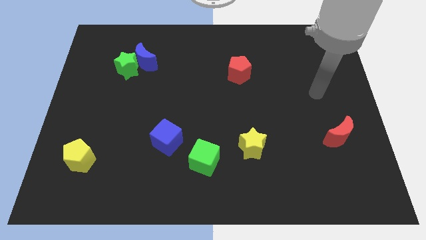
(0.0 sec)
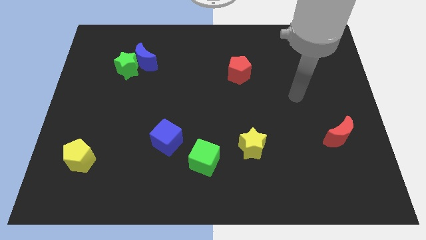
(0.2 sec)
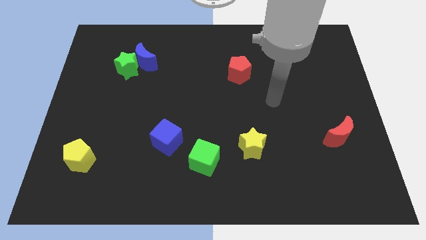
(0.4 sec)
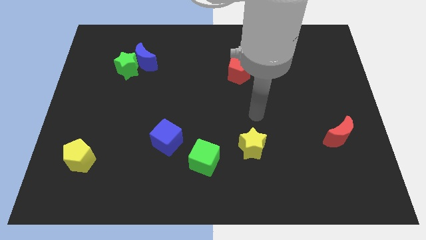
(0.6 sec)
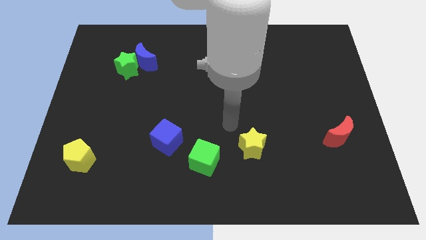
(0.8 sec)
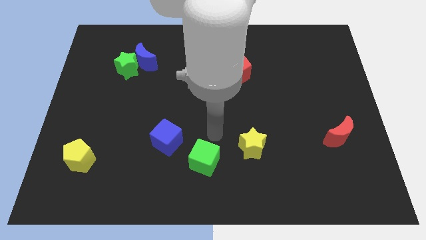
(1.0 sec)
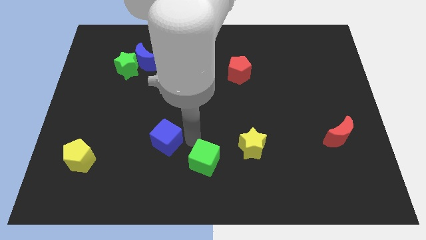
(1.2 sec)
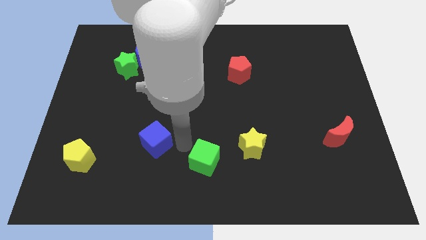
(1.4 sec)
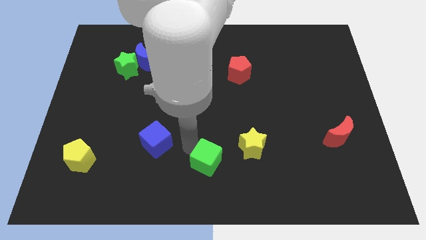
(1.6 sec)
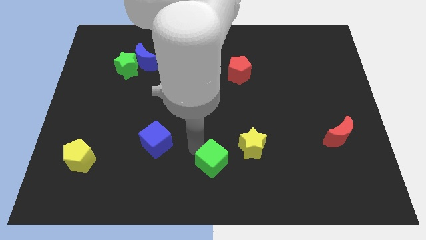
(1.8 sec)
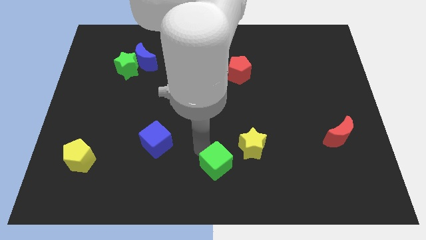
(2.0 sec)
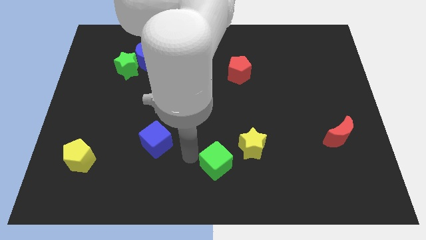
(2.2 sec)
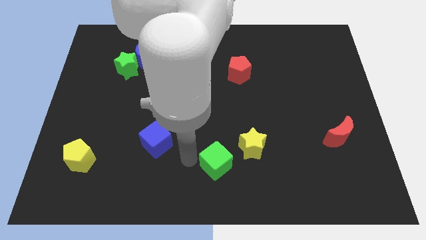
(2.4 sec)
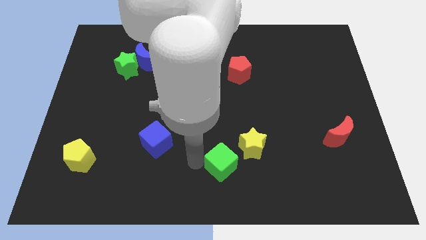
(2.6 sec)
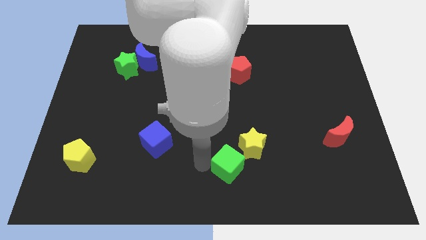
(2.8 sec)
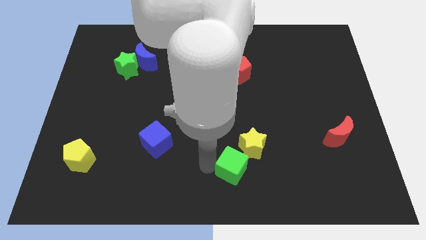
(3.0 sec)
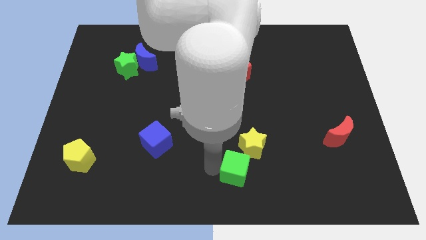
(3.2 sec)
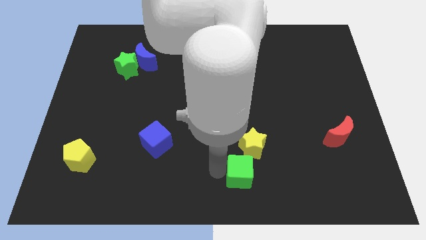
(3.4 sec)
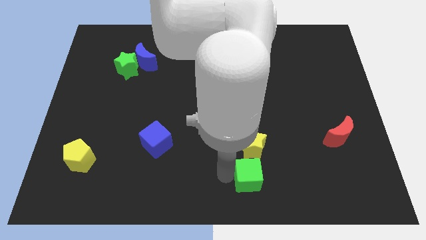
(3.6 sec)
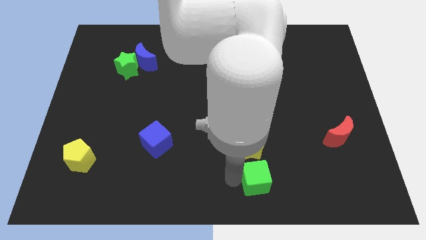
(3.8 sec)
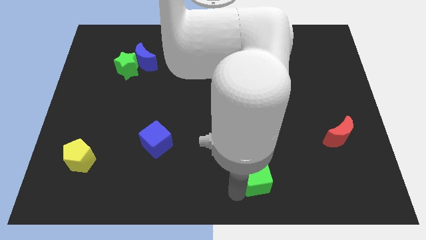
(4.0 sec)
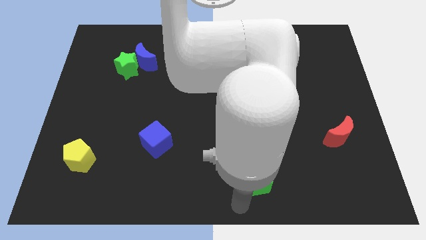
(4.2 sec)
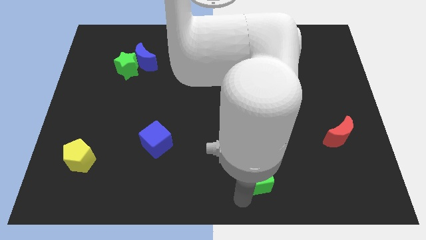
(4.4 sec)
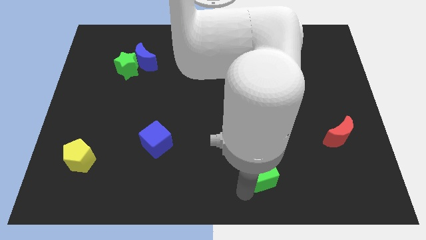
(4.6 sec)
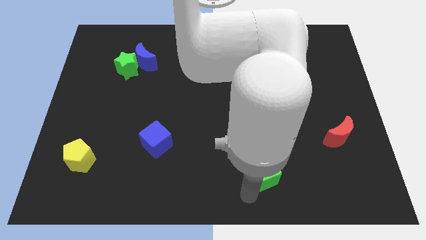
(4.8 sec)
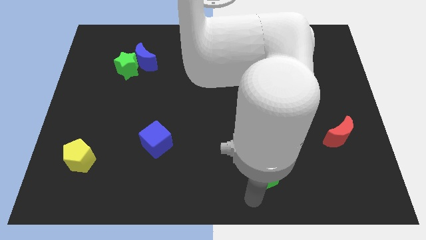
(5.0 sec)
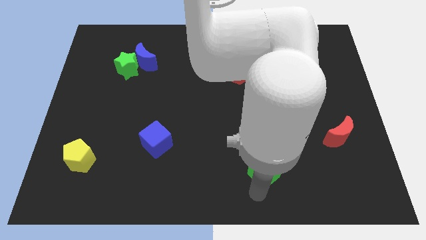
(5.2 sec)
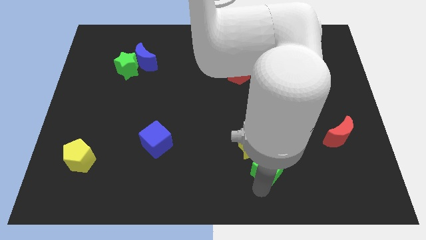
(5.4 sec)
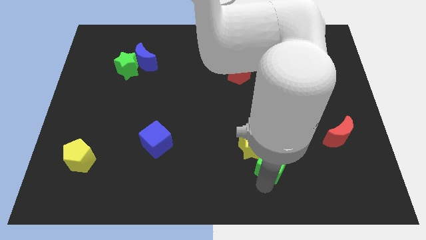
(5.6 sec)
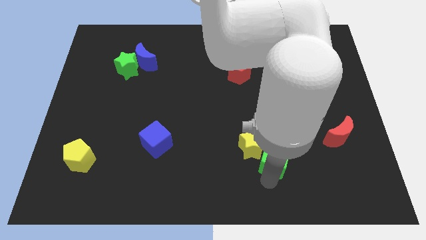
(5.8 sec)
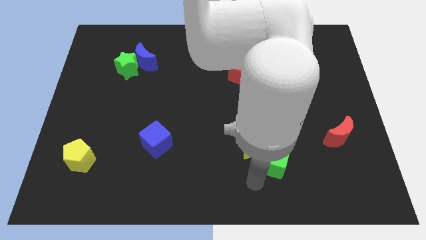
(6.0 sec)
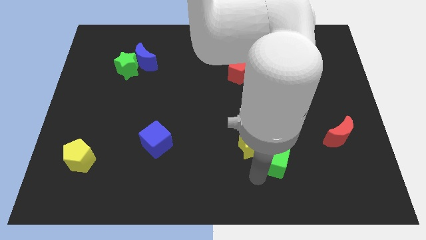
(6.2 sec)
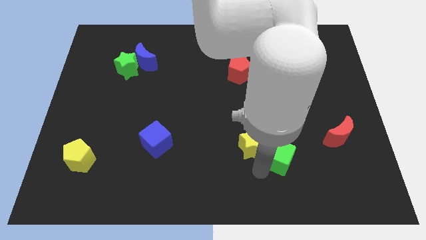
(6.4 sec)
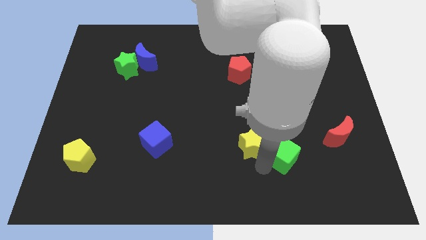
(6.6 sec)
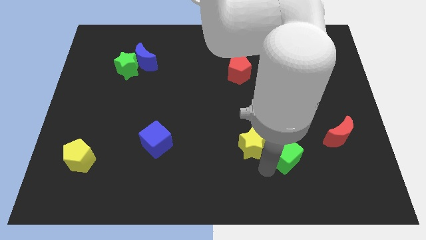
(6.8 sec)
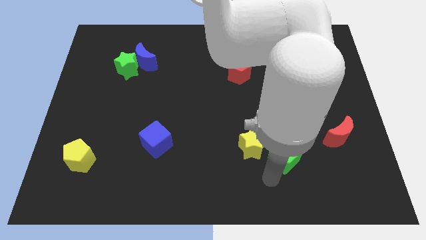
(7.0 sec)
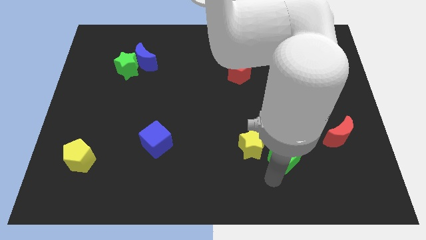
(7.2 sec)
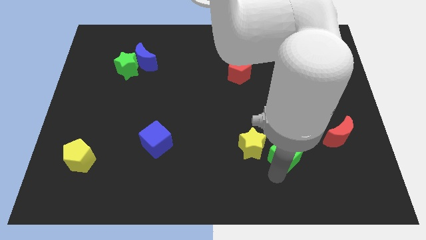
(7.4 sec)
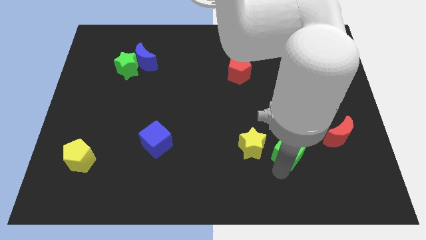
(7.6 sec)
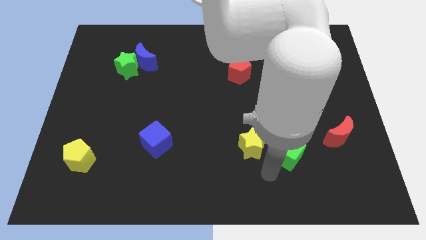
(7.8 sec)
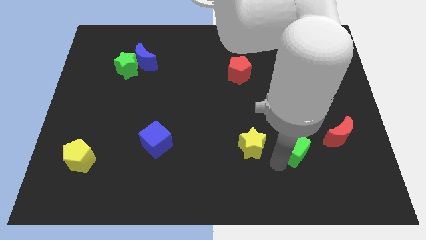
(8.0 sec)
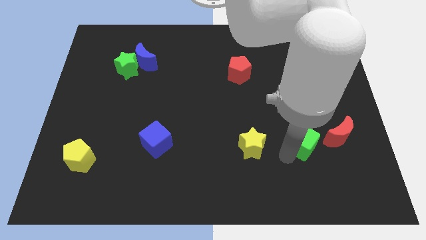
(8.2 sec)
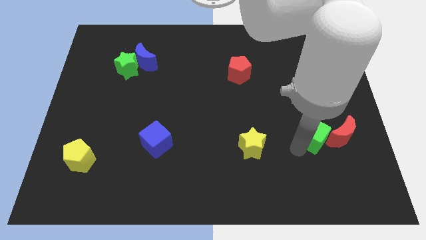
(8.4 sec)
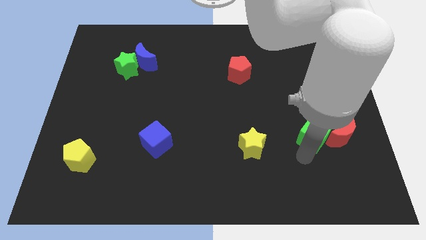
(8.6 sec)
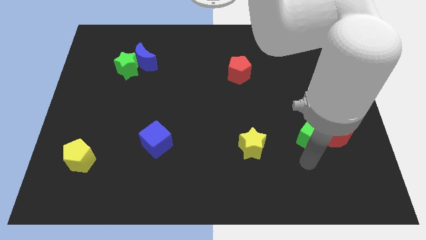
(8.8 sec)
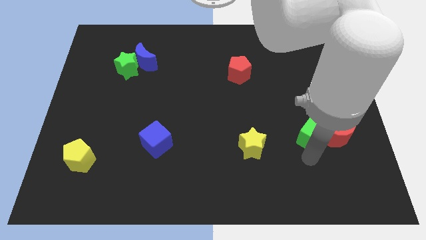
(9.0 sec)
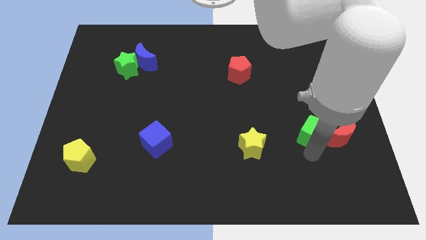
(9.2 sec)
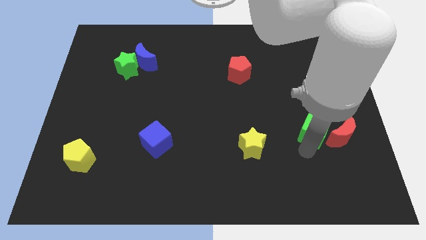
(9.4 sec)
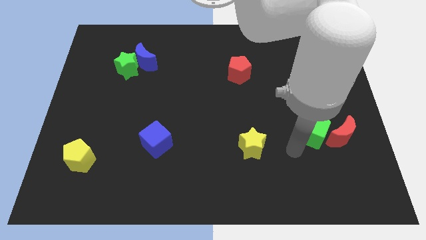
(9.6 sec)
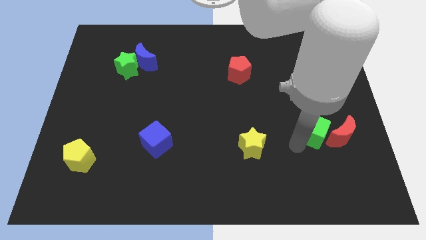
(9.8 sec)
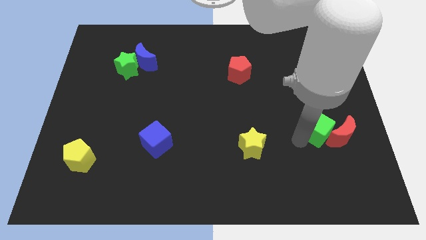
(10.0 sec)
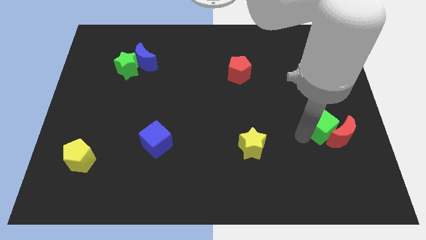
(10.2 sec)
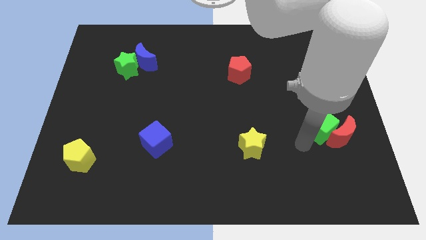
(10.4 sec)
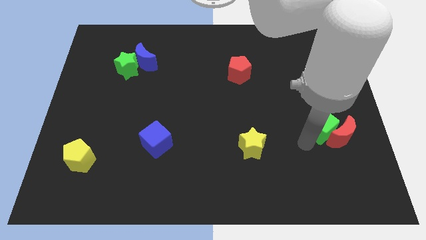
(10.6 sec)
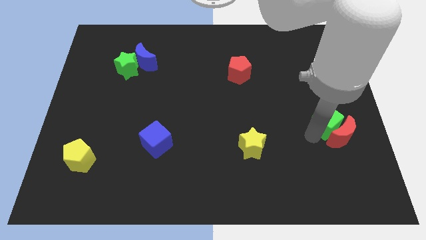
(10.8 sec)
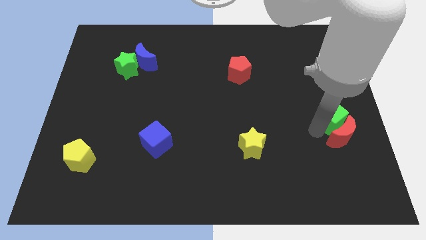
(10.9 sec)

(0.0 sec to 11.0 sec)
slide the green cube to the right side of the board

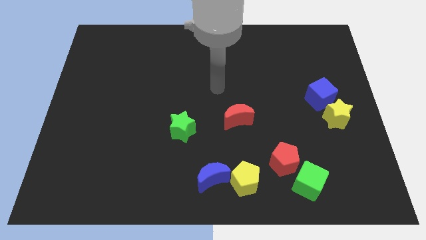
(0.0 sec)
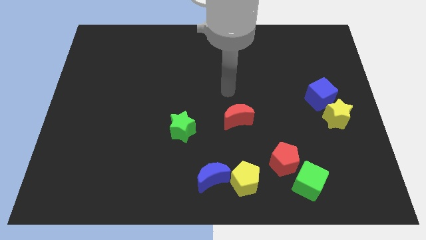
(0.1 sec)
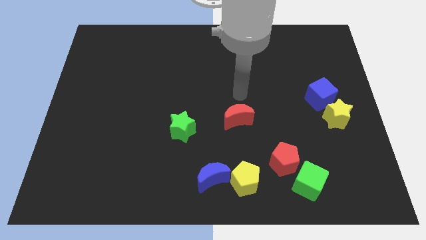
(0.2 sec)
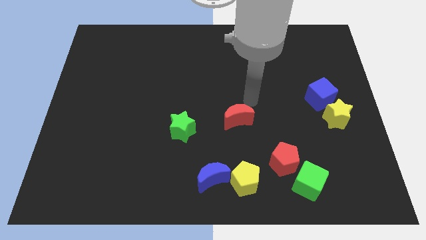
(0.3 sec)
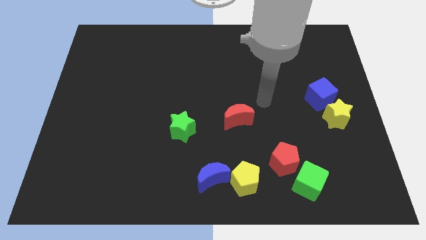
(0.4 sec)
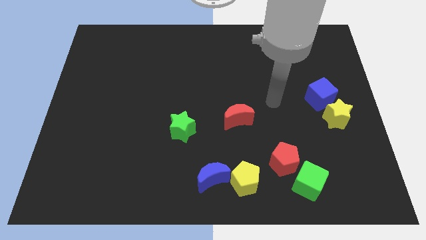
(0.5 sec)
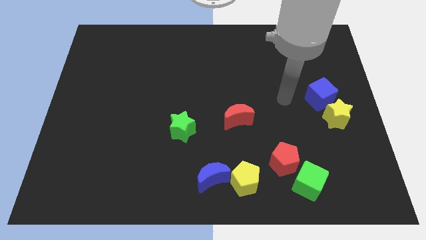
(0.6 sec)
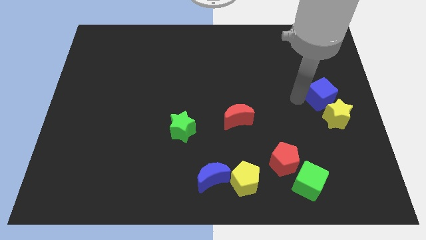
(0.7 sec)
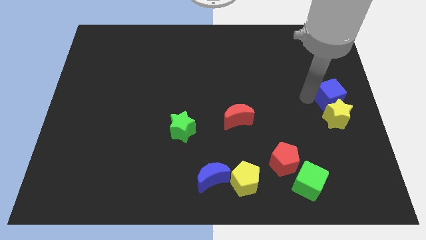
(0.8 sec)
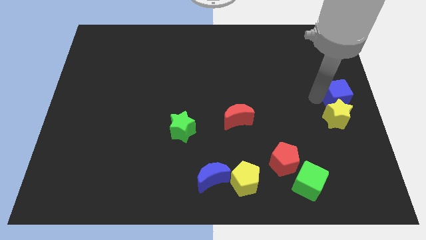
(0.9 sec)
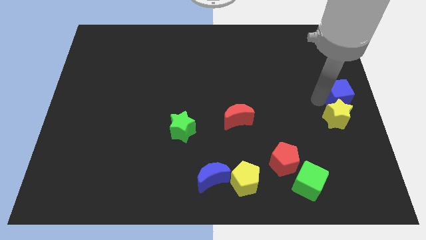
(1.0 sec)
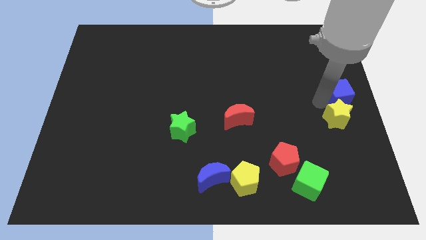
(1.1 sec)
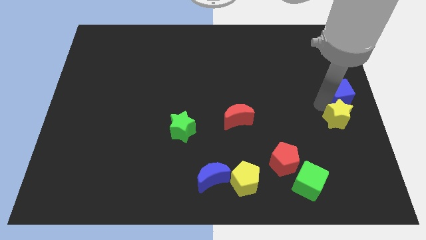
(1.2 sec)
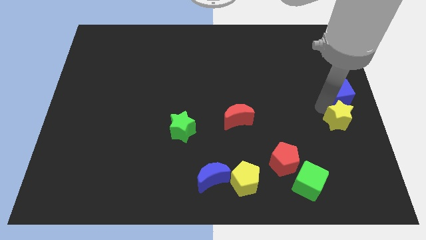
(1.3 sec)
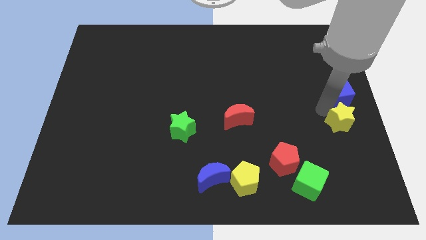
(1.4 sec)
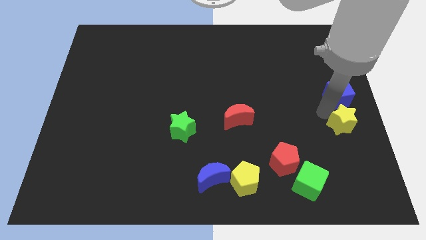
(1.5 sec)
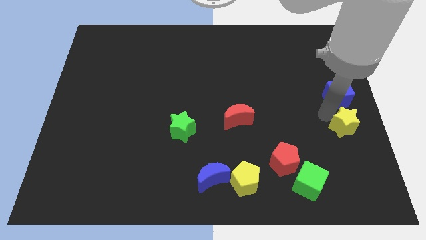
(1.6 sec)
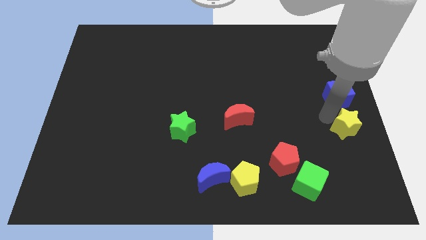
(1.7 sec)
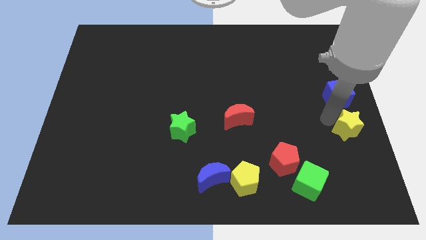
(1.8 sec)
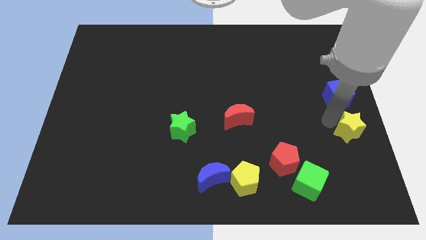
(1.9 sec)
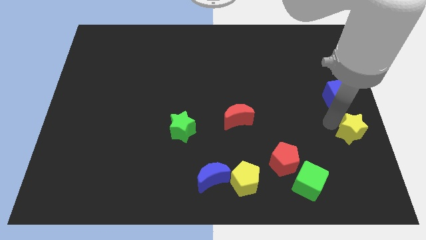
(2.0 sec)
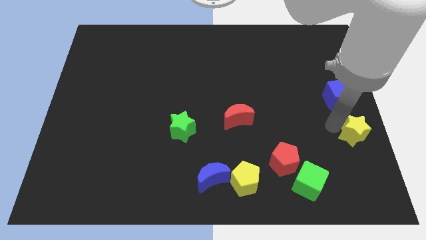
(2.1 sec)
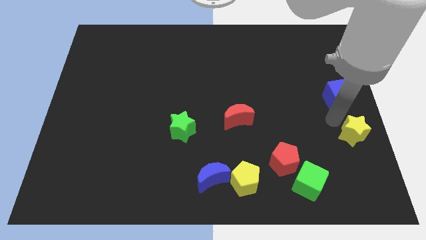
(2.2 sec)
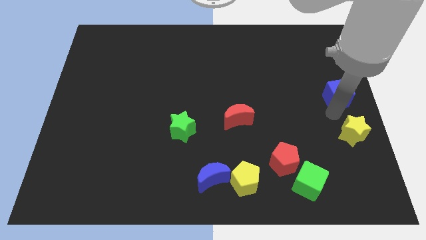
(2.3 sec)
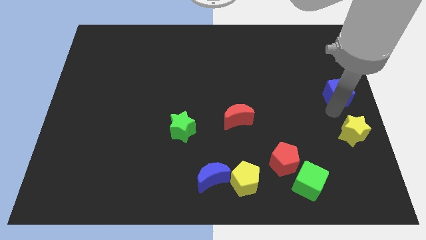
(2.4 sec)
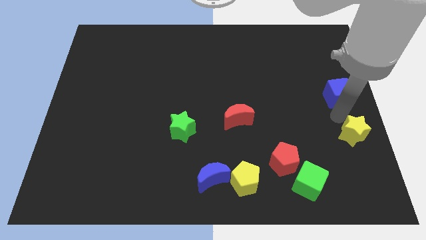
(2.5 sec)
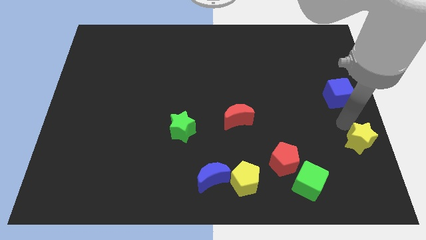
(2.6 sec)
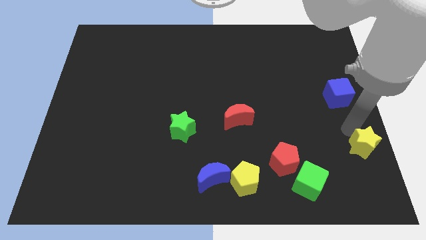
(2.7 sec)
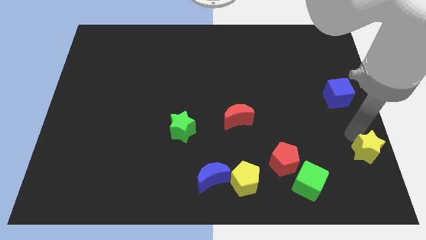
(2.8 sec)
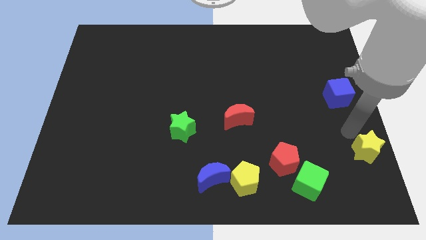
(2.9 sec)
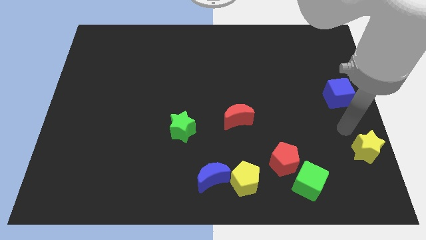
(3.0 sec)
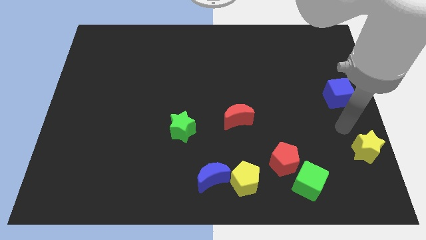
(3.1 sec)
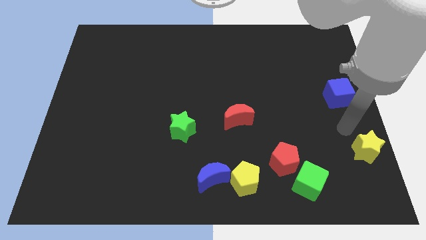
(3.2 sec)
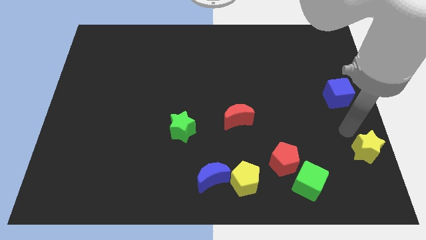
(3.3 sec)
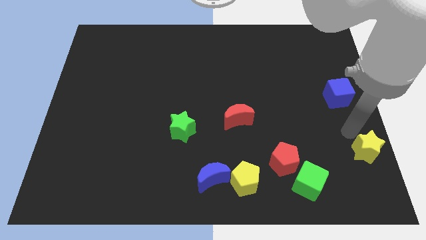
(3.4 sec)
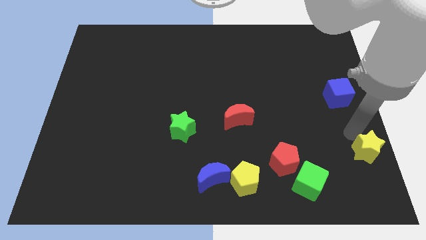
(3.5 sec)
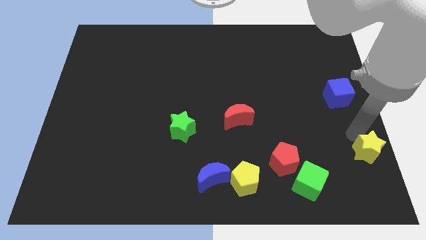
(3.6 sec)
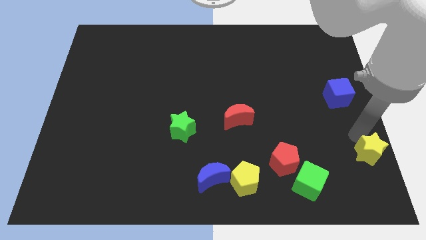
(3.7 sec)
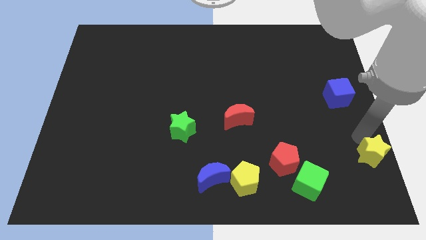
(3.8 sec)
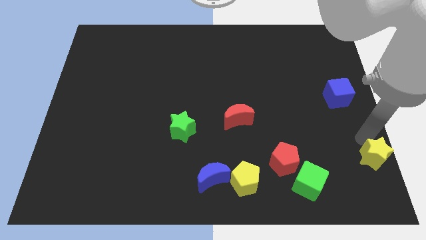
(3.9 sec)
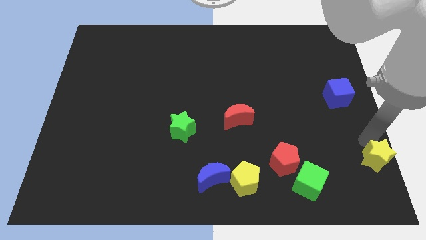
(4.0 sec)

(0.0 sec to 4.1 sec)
push the yellow star to the bottom right of the board
